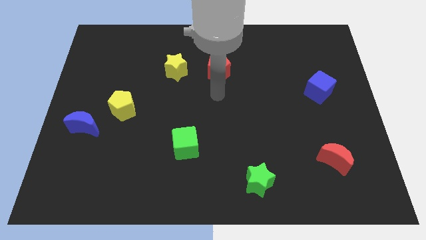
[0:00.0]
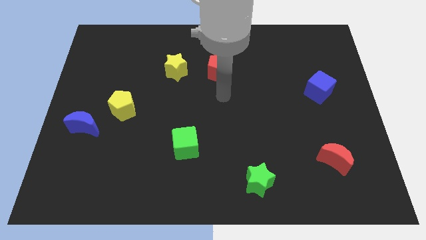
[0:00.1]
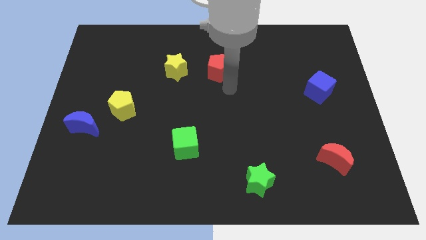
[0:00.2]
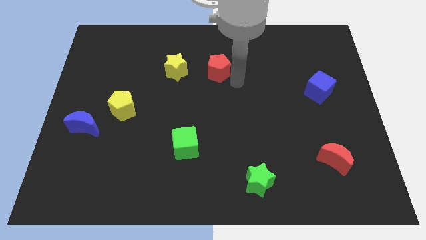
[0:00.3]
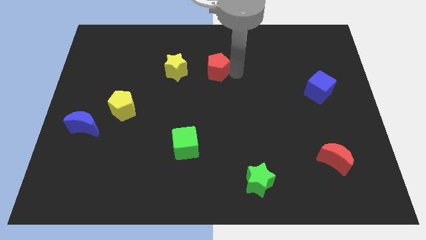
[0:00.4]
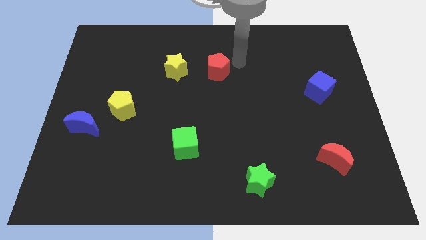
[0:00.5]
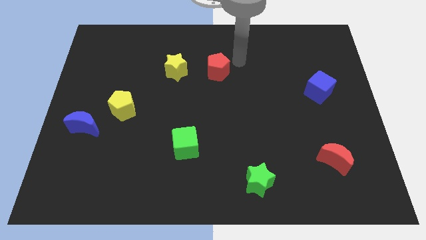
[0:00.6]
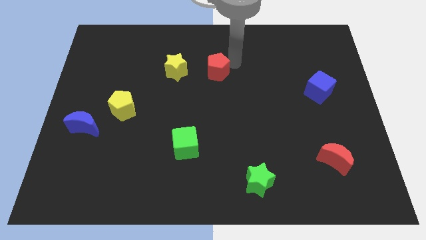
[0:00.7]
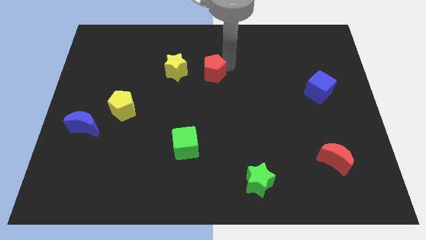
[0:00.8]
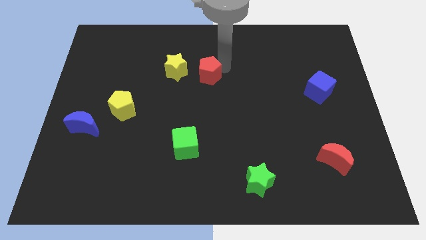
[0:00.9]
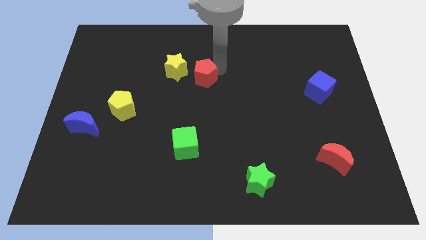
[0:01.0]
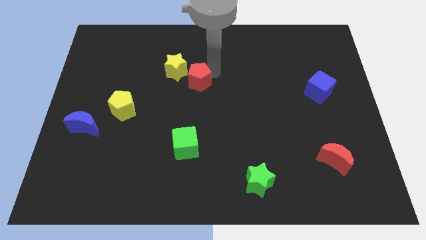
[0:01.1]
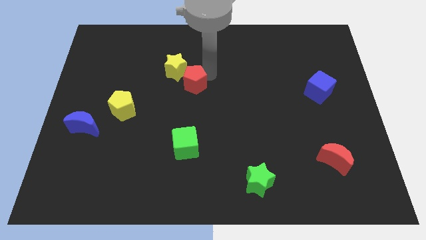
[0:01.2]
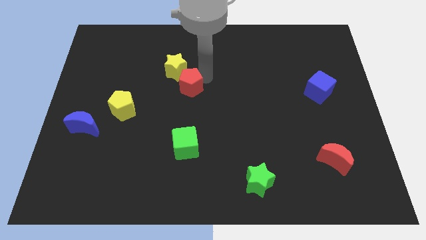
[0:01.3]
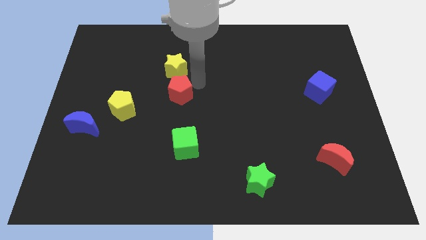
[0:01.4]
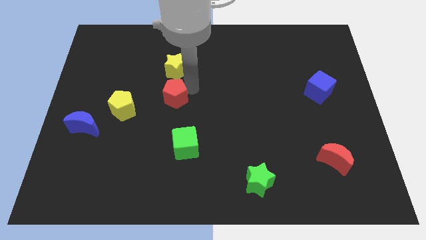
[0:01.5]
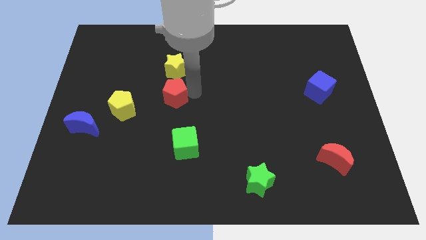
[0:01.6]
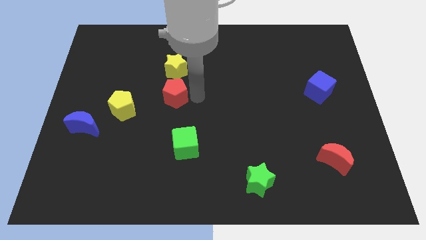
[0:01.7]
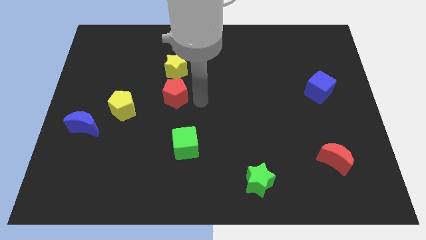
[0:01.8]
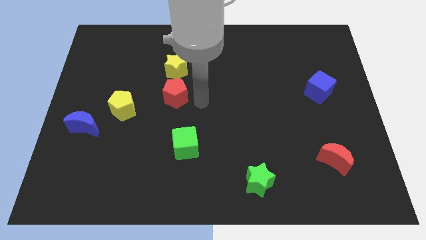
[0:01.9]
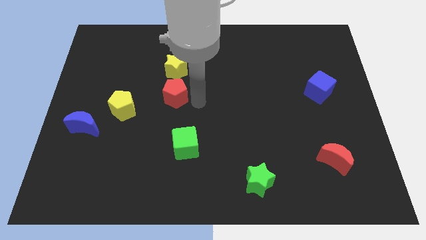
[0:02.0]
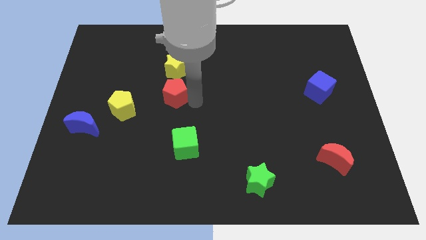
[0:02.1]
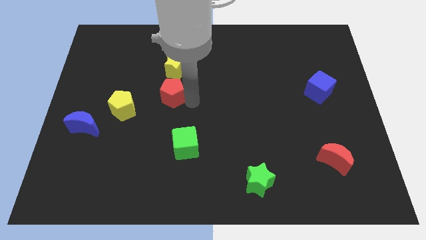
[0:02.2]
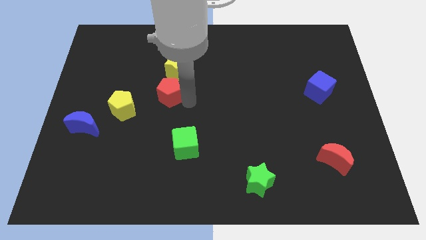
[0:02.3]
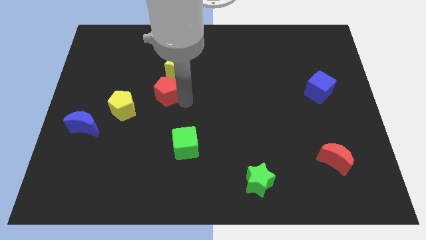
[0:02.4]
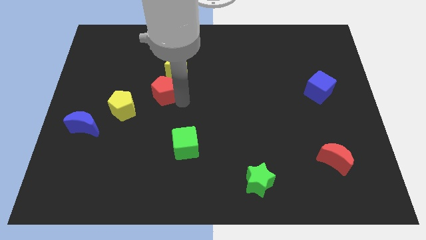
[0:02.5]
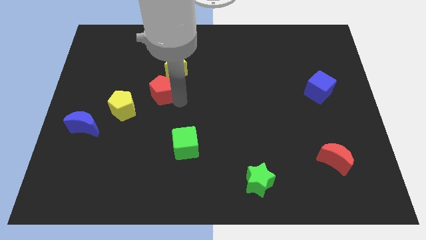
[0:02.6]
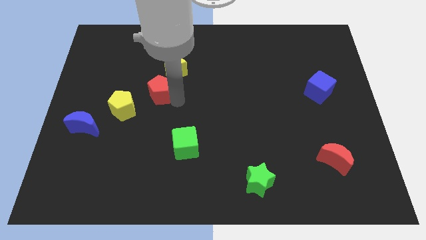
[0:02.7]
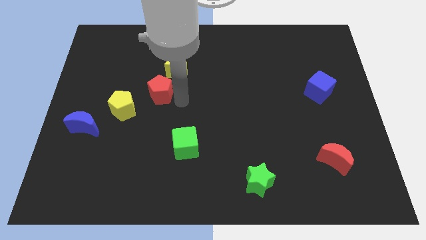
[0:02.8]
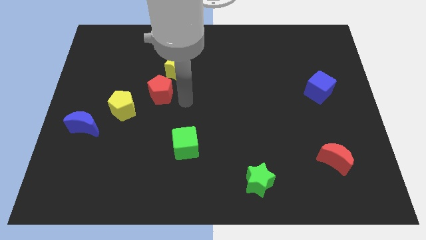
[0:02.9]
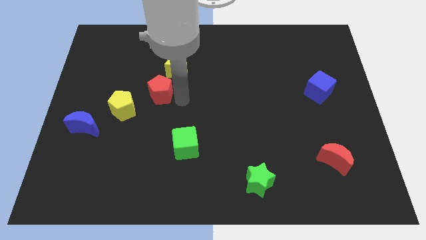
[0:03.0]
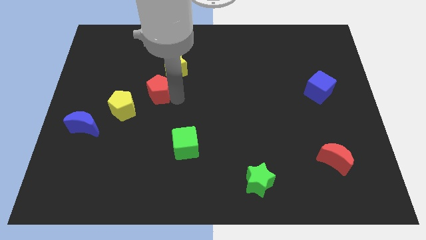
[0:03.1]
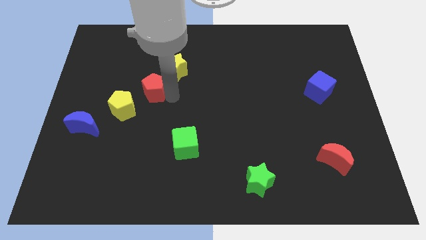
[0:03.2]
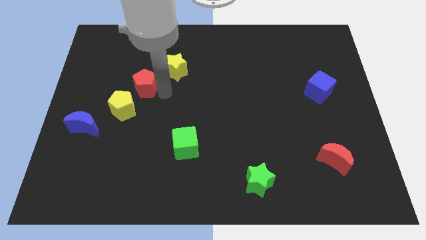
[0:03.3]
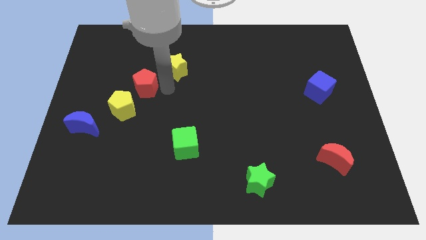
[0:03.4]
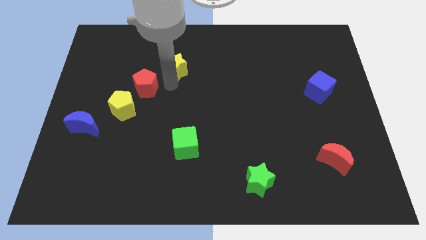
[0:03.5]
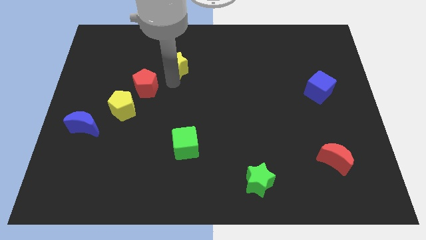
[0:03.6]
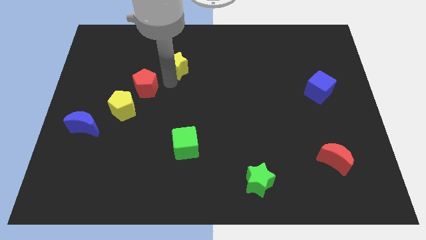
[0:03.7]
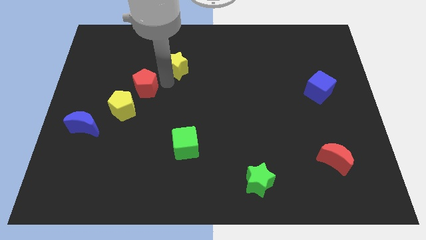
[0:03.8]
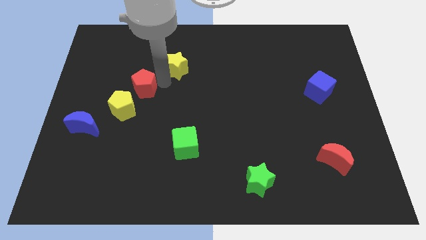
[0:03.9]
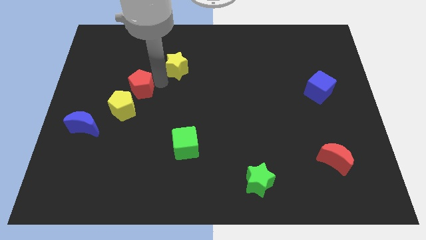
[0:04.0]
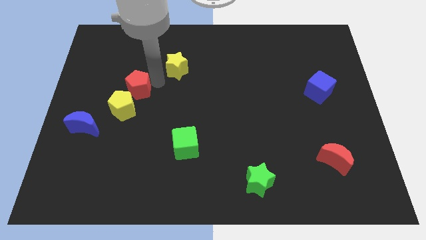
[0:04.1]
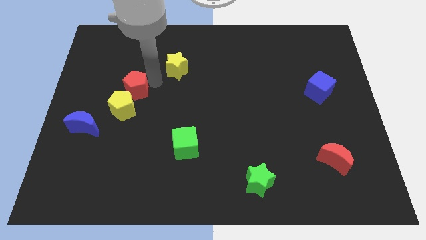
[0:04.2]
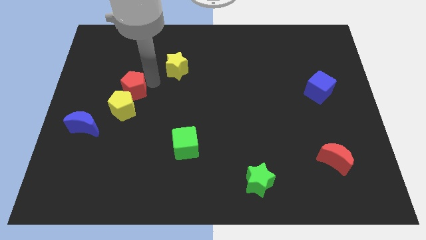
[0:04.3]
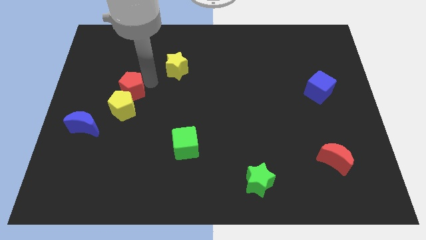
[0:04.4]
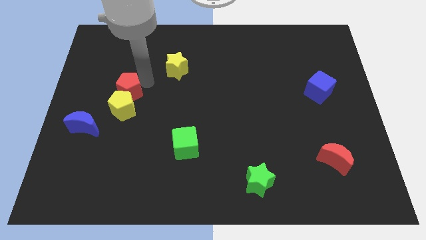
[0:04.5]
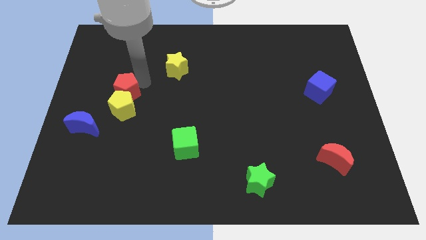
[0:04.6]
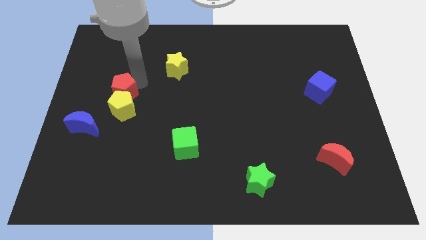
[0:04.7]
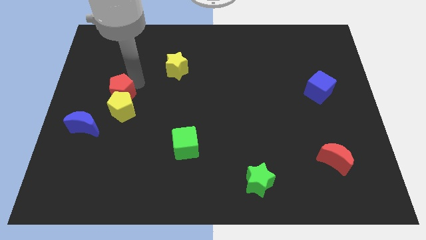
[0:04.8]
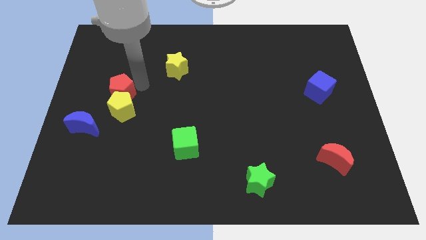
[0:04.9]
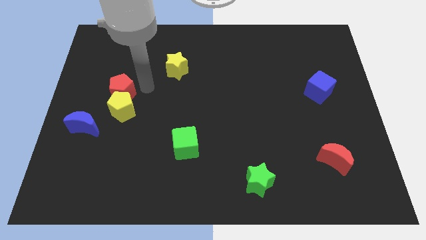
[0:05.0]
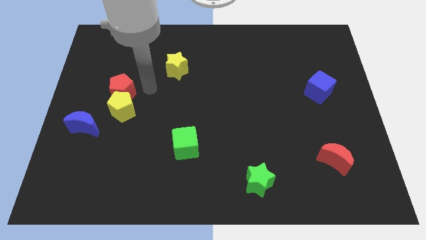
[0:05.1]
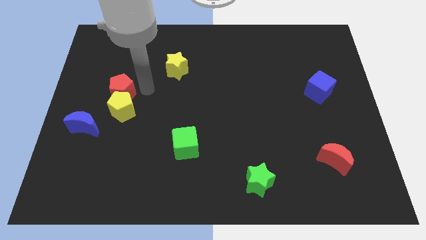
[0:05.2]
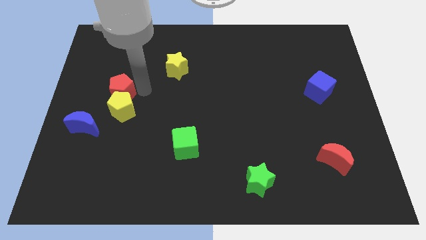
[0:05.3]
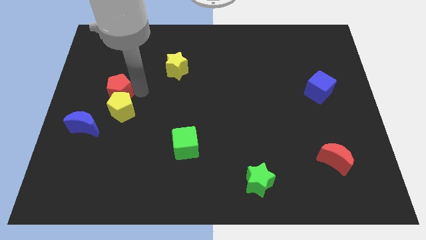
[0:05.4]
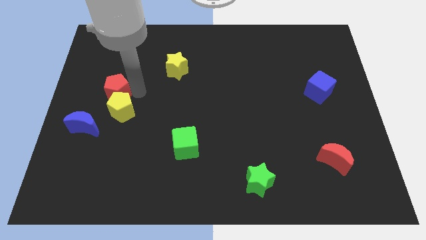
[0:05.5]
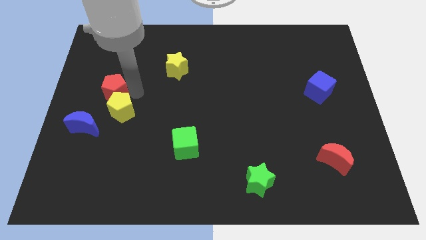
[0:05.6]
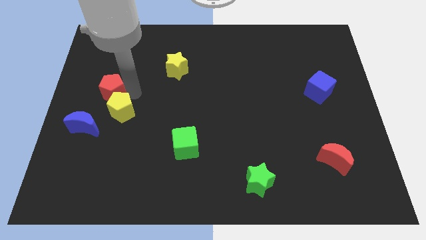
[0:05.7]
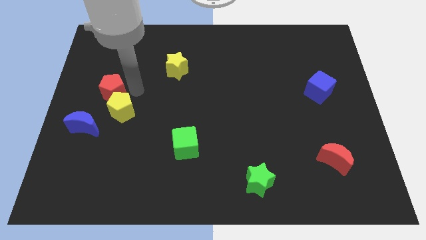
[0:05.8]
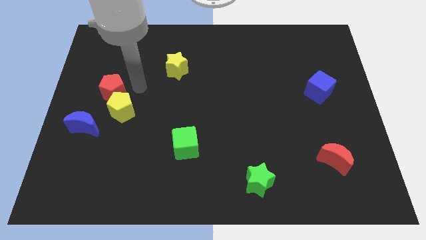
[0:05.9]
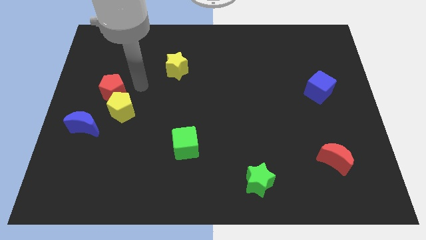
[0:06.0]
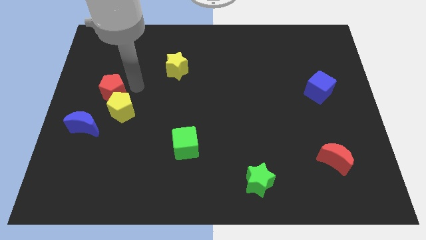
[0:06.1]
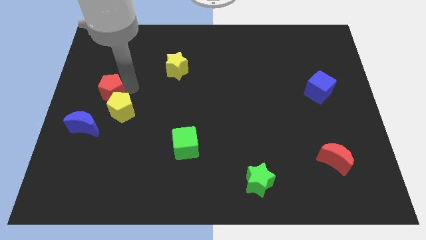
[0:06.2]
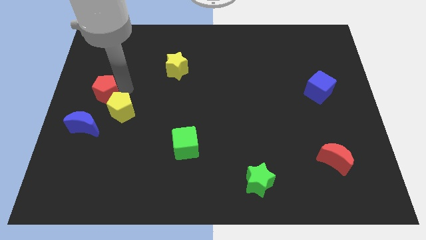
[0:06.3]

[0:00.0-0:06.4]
put the red pentagon to the center left

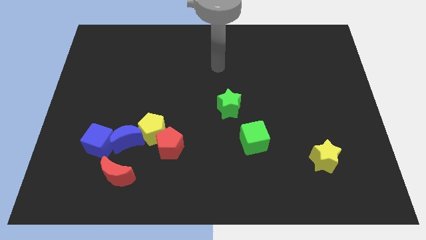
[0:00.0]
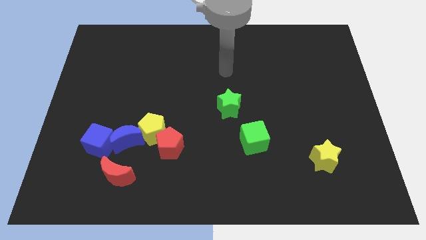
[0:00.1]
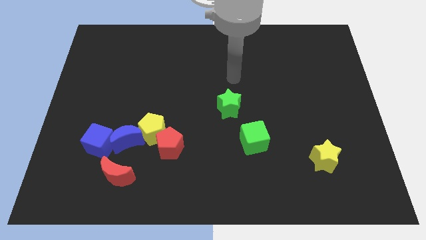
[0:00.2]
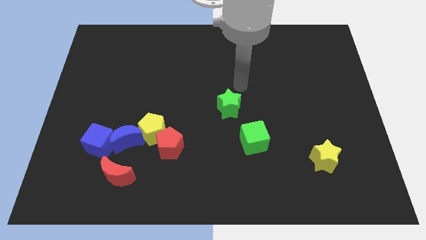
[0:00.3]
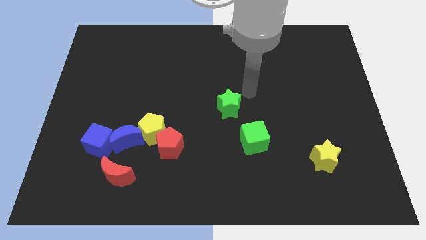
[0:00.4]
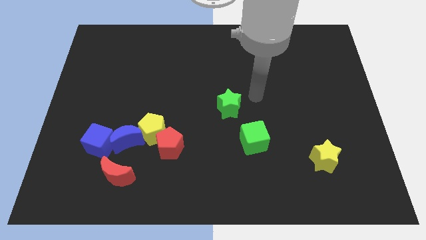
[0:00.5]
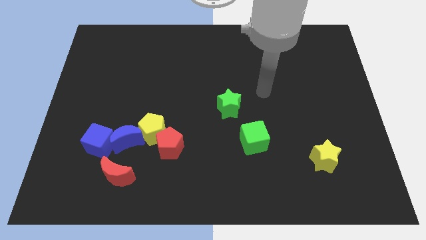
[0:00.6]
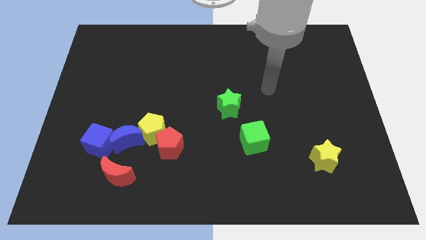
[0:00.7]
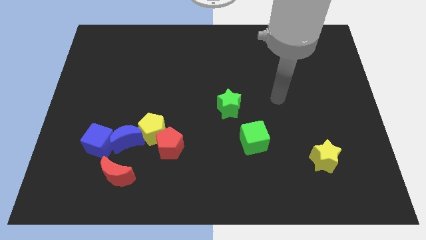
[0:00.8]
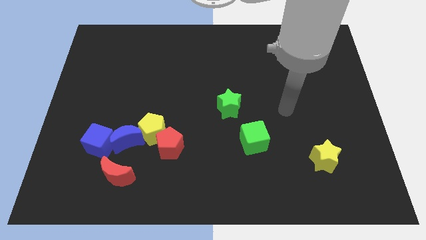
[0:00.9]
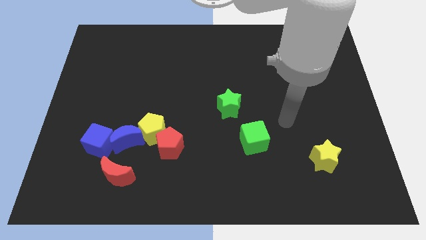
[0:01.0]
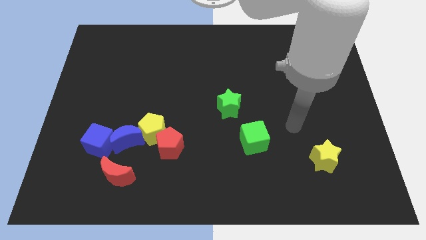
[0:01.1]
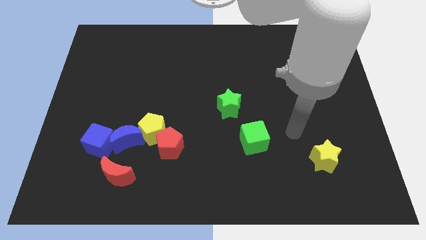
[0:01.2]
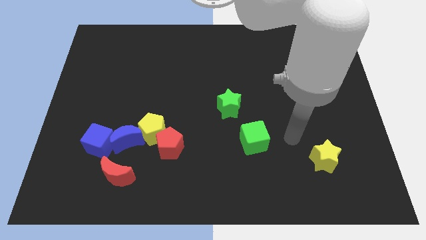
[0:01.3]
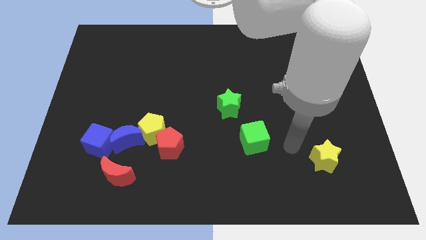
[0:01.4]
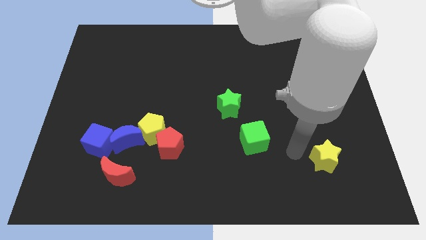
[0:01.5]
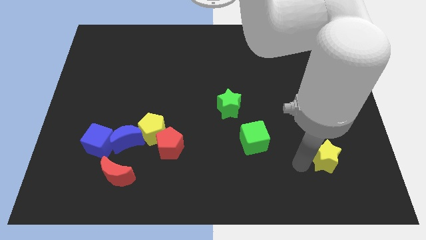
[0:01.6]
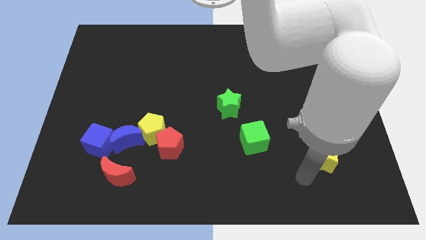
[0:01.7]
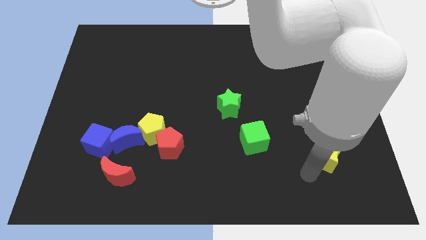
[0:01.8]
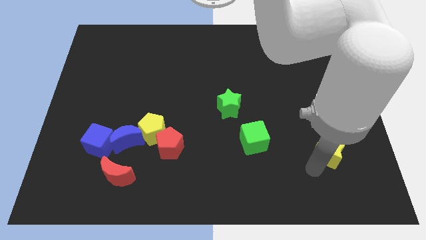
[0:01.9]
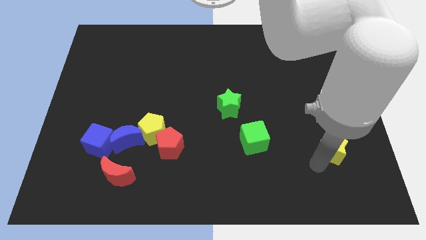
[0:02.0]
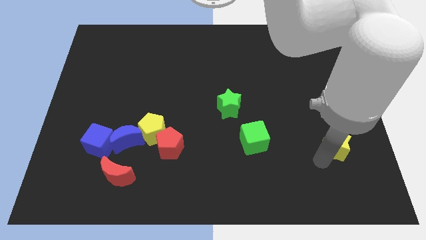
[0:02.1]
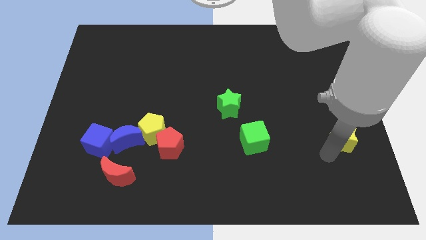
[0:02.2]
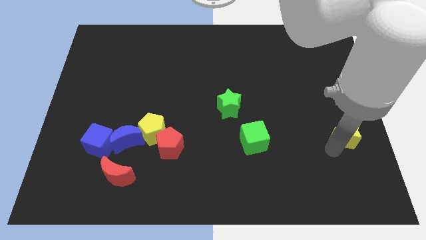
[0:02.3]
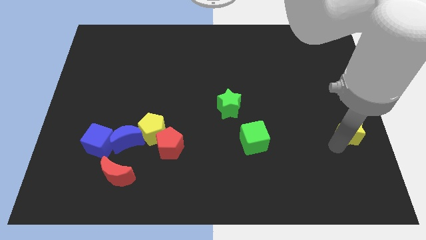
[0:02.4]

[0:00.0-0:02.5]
slide the yellow star to the right side of the board
